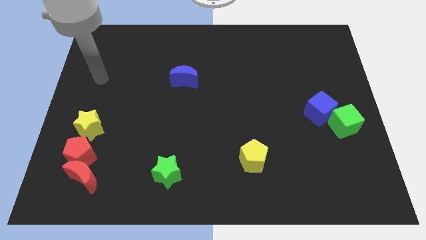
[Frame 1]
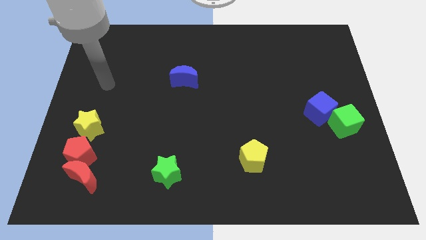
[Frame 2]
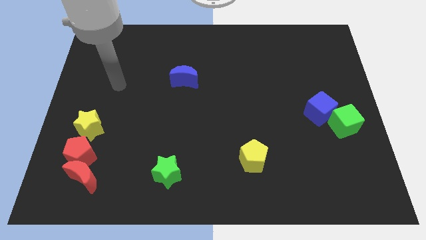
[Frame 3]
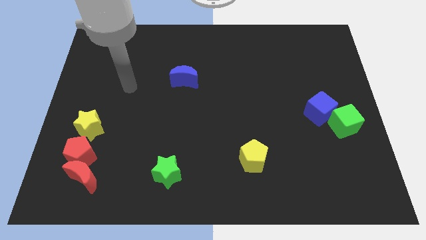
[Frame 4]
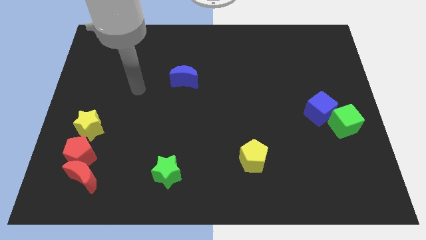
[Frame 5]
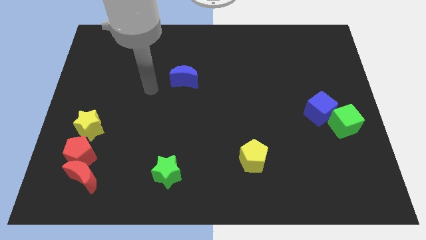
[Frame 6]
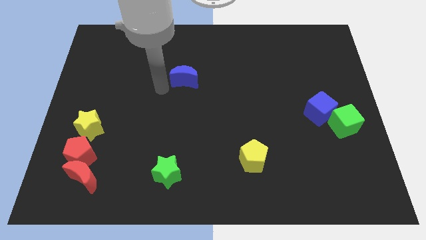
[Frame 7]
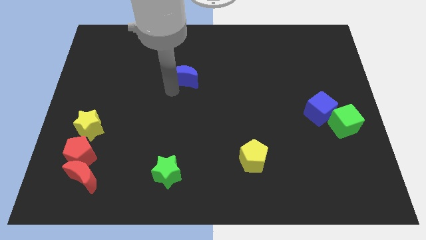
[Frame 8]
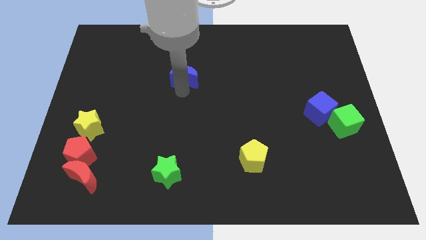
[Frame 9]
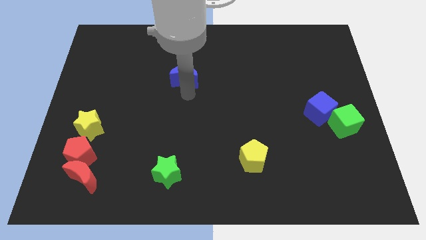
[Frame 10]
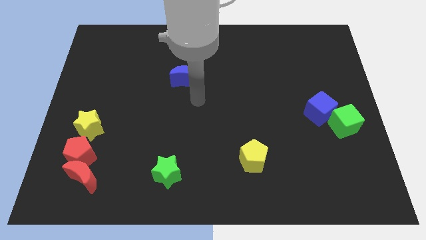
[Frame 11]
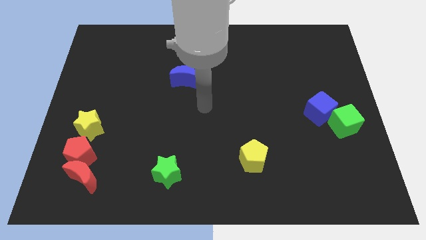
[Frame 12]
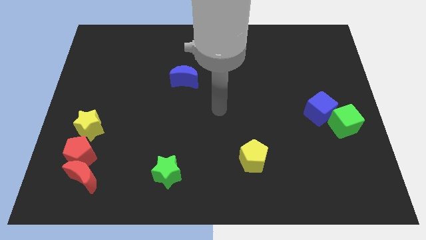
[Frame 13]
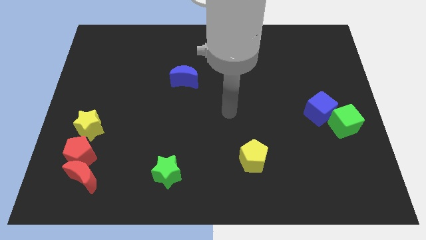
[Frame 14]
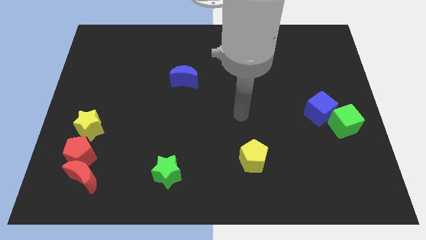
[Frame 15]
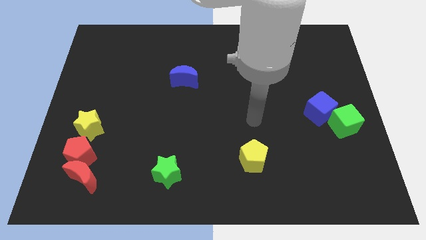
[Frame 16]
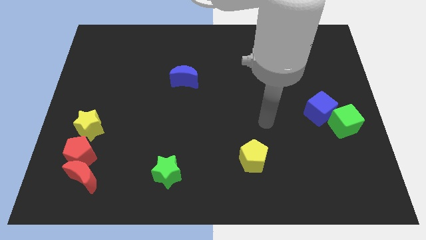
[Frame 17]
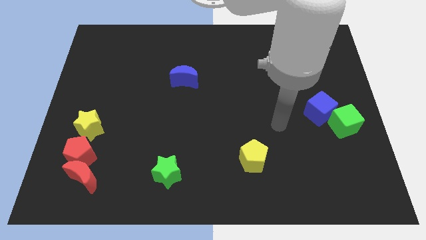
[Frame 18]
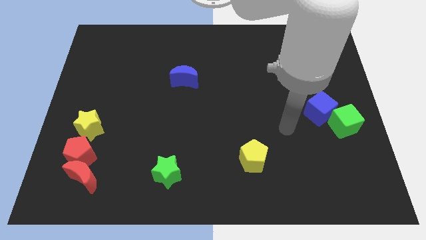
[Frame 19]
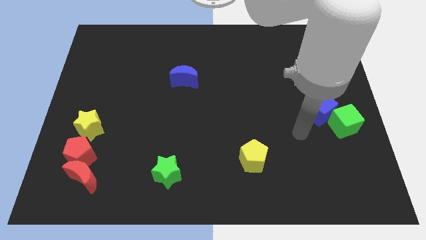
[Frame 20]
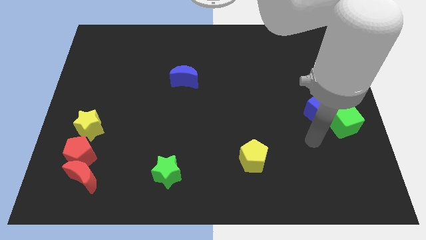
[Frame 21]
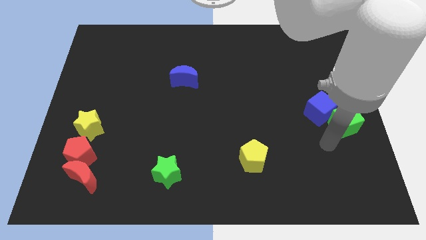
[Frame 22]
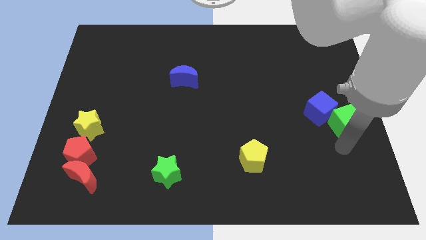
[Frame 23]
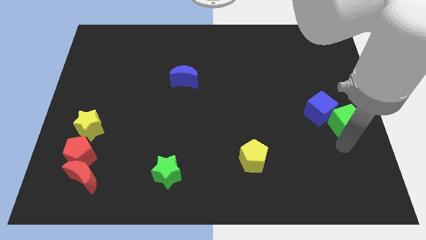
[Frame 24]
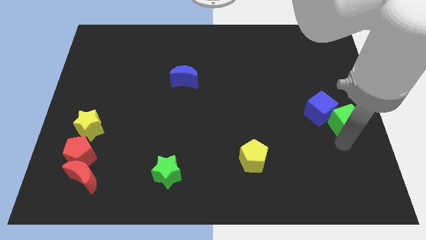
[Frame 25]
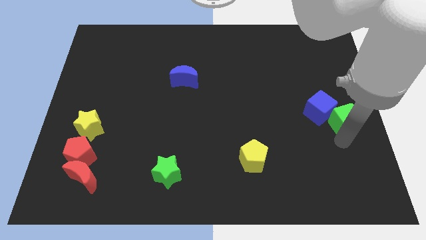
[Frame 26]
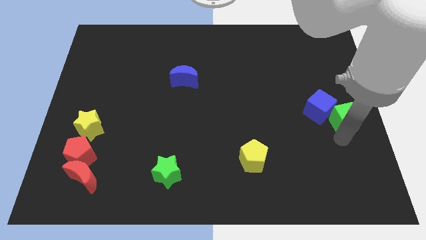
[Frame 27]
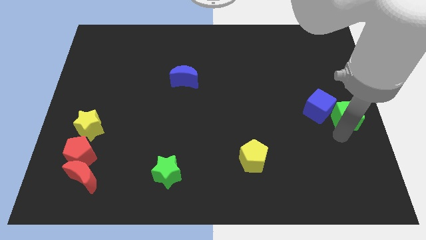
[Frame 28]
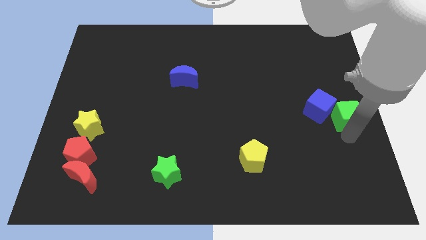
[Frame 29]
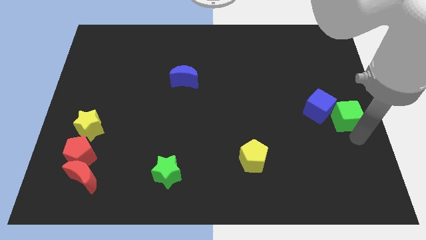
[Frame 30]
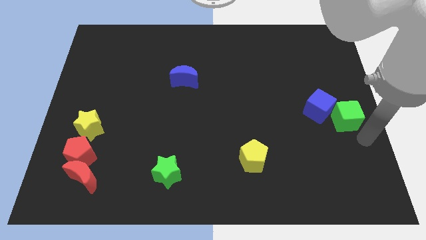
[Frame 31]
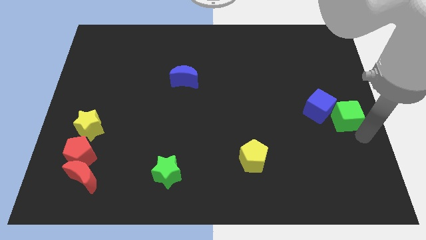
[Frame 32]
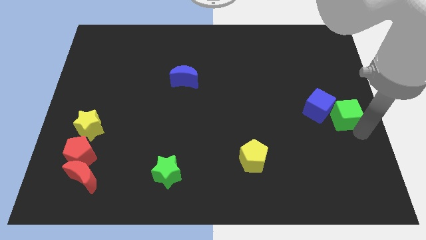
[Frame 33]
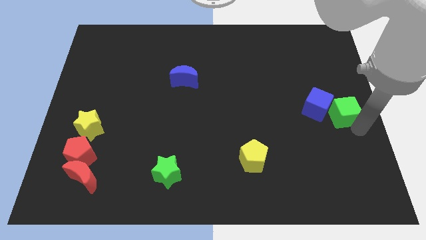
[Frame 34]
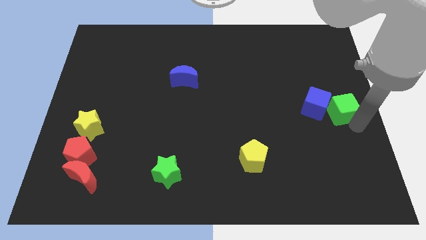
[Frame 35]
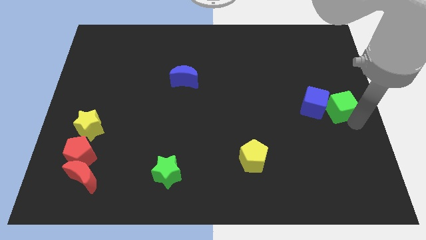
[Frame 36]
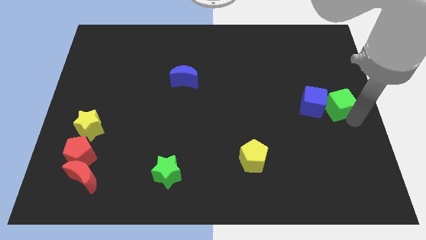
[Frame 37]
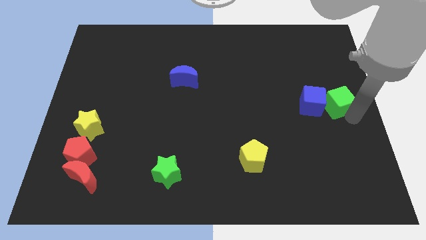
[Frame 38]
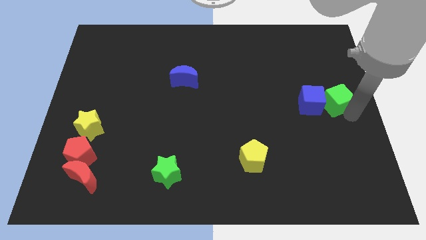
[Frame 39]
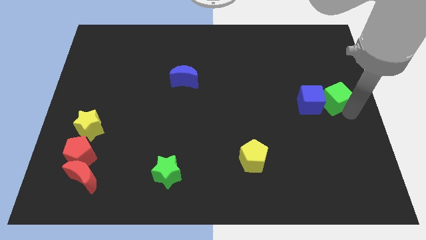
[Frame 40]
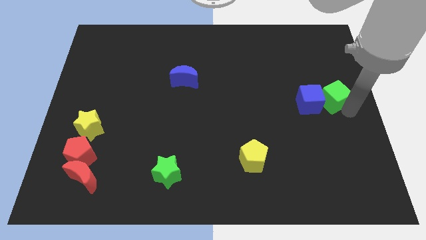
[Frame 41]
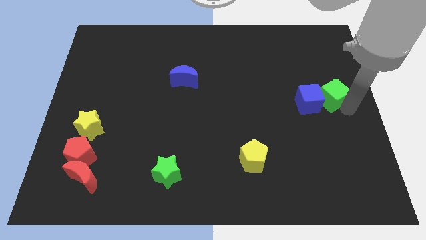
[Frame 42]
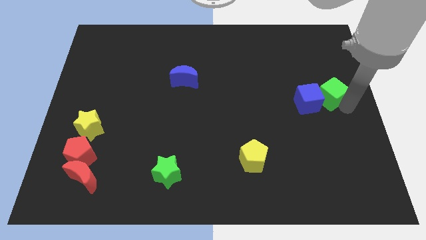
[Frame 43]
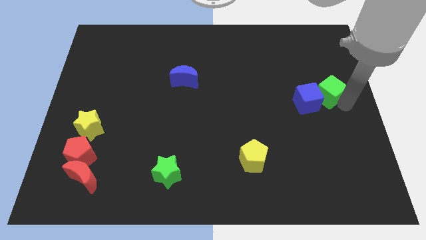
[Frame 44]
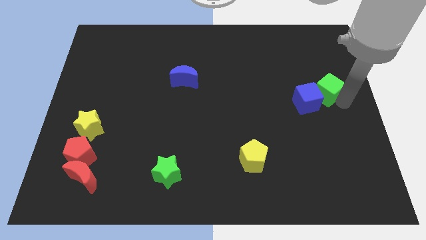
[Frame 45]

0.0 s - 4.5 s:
move the green cube a little bit upwards and left diagonally

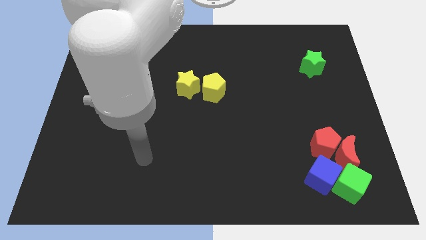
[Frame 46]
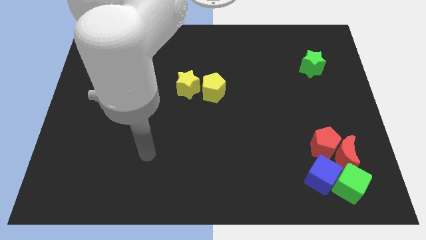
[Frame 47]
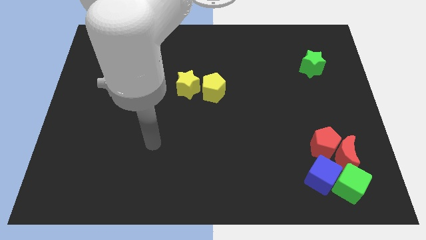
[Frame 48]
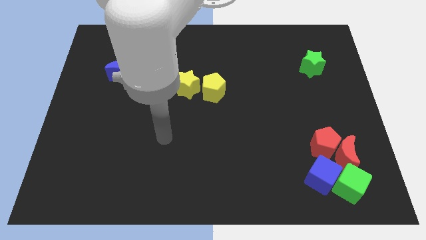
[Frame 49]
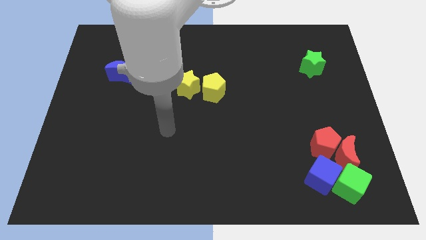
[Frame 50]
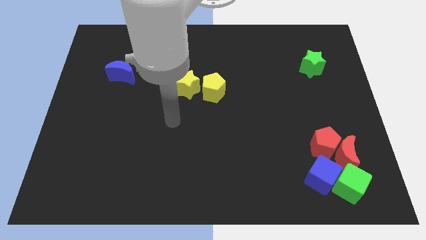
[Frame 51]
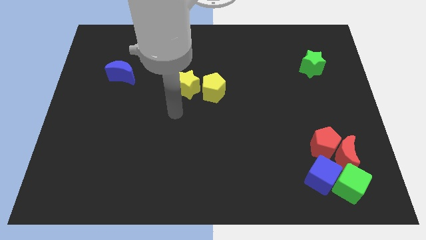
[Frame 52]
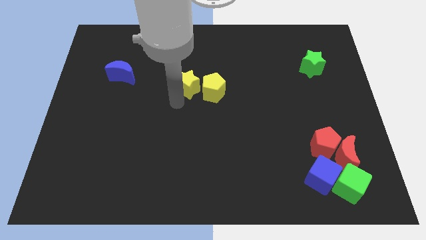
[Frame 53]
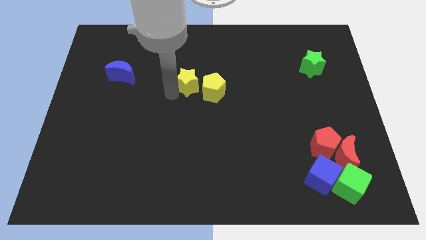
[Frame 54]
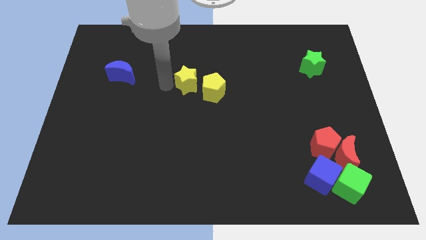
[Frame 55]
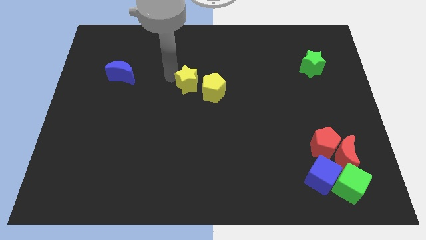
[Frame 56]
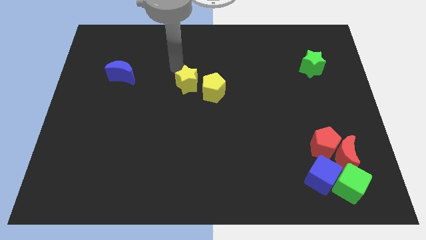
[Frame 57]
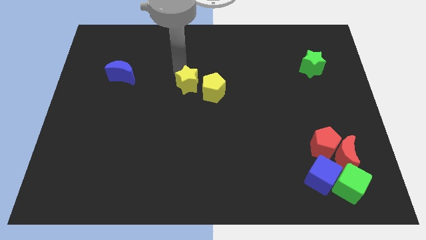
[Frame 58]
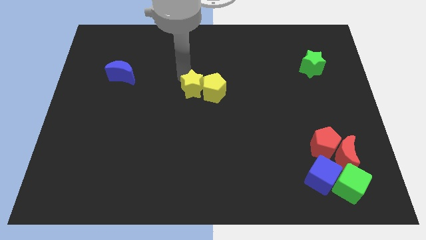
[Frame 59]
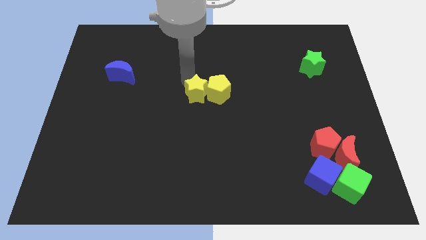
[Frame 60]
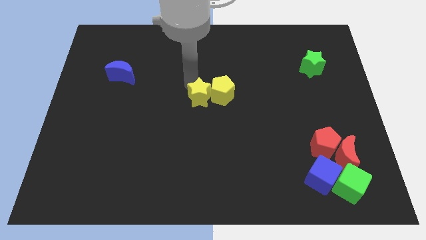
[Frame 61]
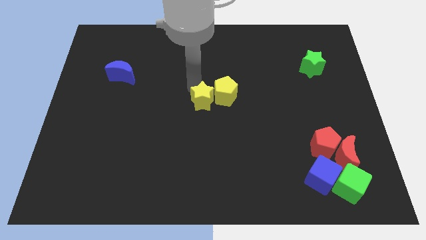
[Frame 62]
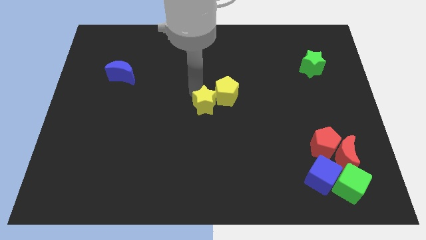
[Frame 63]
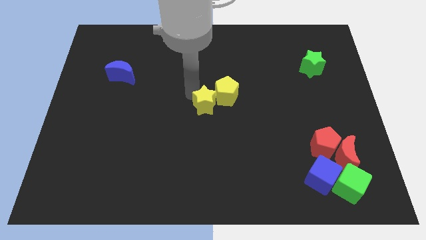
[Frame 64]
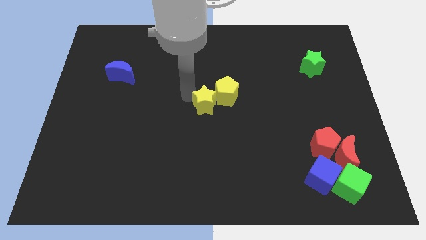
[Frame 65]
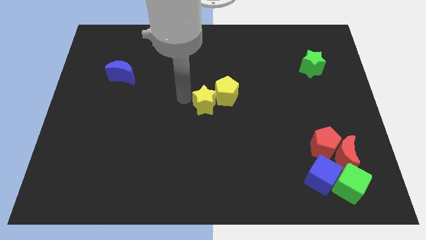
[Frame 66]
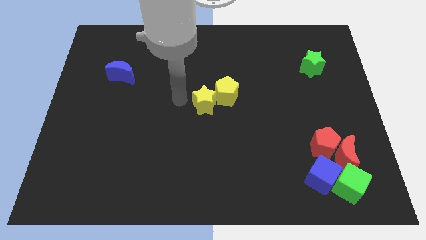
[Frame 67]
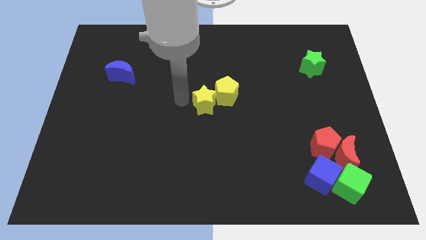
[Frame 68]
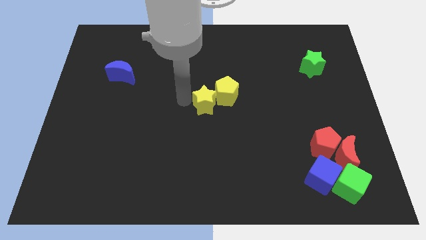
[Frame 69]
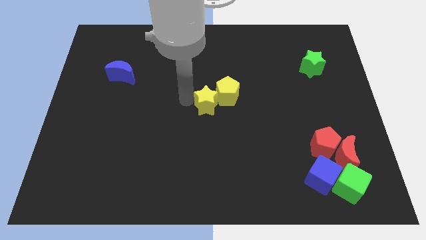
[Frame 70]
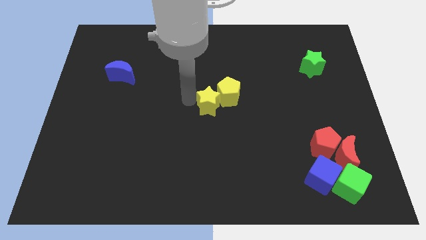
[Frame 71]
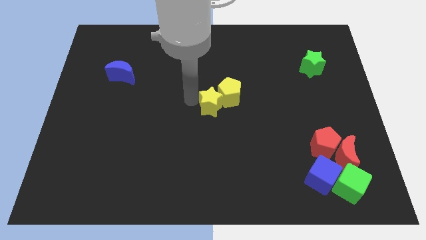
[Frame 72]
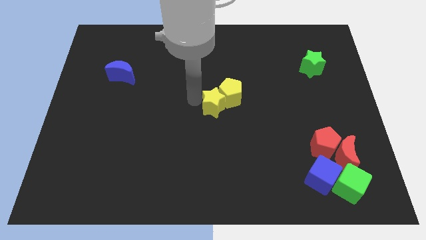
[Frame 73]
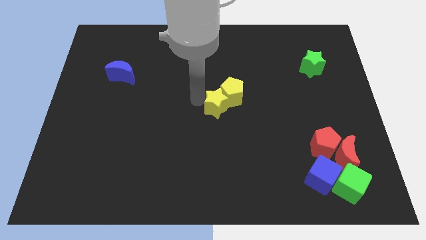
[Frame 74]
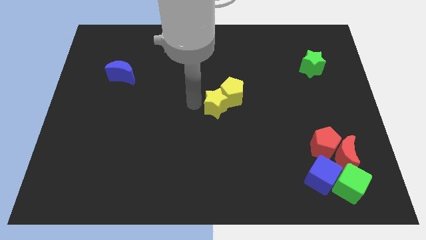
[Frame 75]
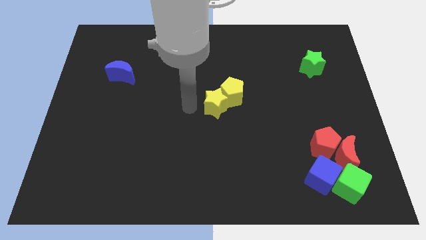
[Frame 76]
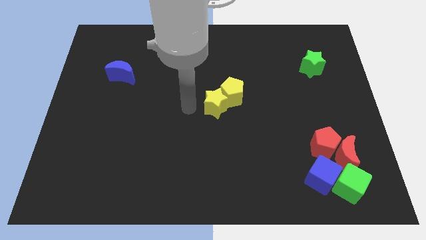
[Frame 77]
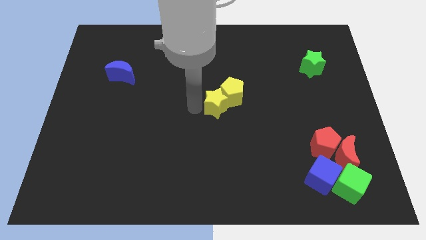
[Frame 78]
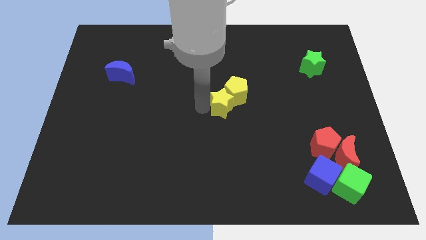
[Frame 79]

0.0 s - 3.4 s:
slide the yellow star somewhat to the right
